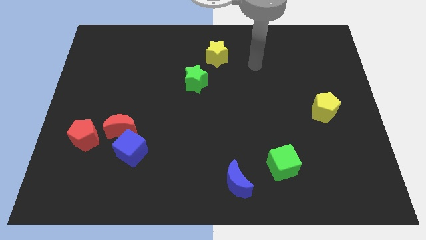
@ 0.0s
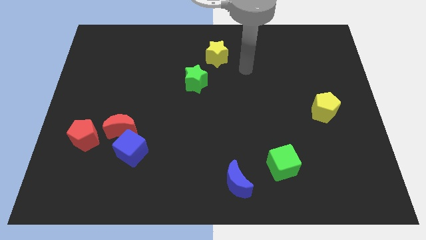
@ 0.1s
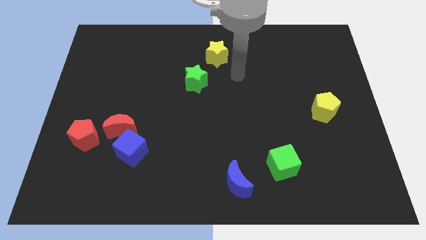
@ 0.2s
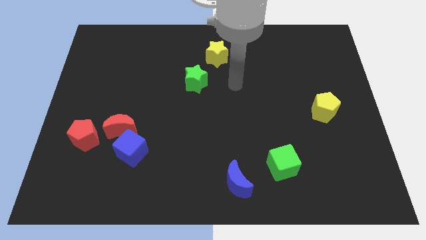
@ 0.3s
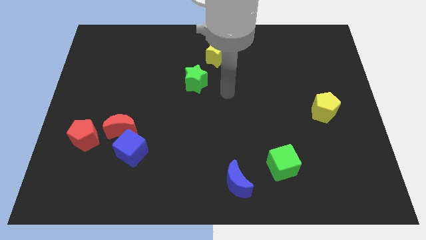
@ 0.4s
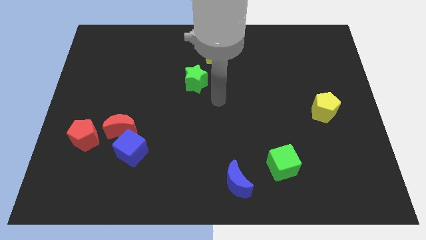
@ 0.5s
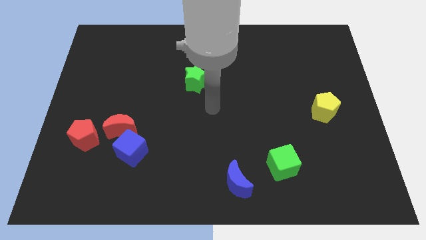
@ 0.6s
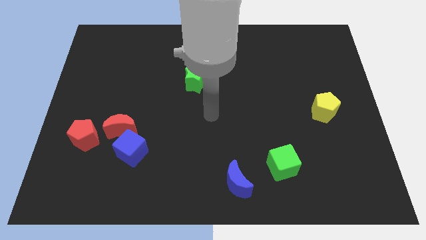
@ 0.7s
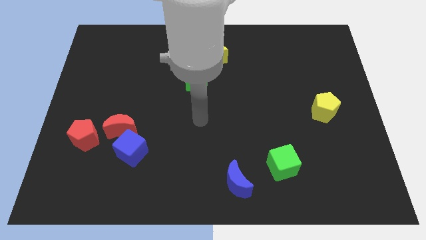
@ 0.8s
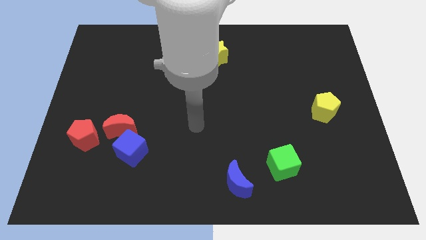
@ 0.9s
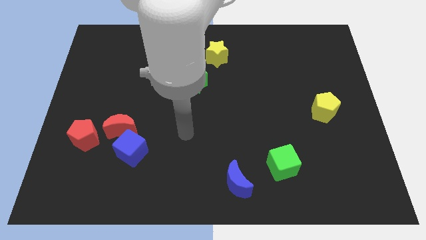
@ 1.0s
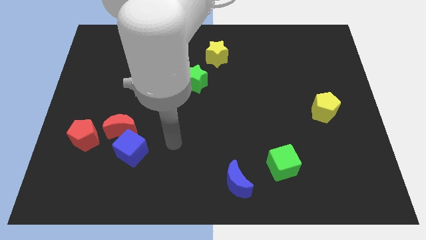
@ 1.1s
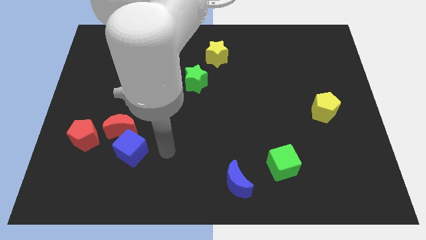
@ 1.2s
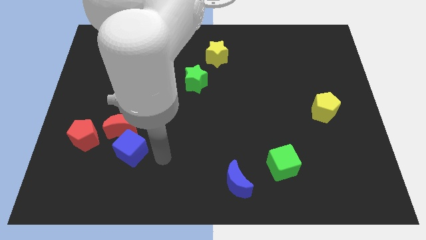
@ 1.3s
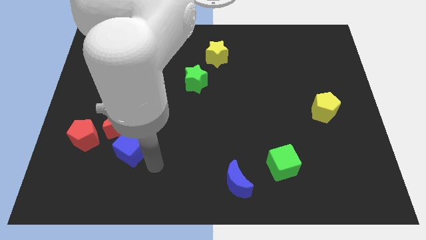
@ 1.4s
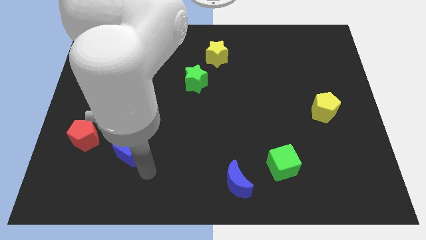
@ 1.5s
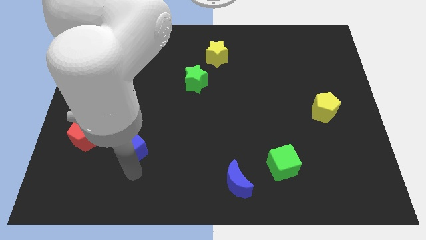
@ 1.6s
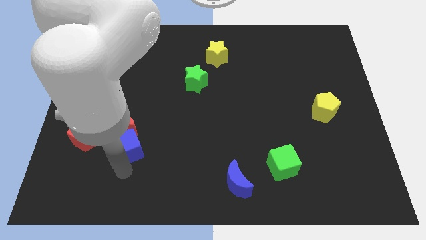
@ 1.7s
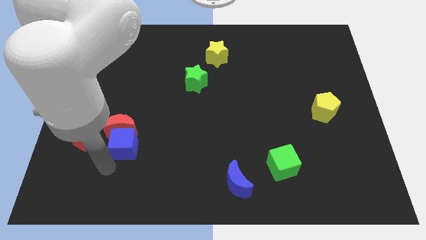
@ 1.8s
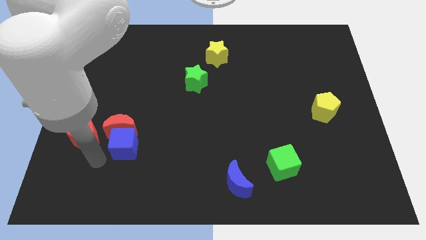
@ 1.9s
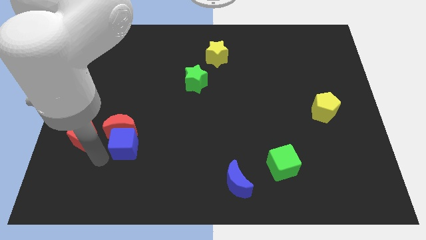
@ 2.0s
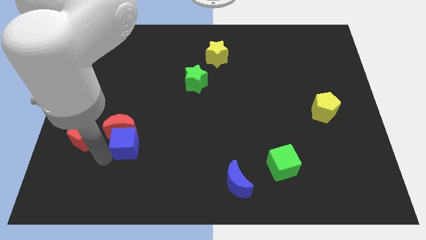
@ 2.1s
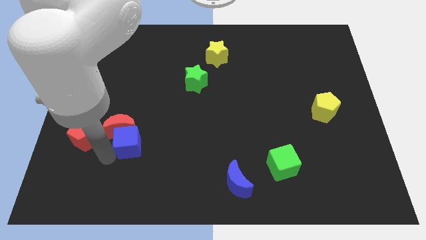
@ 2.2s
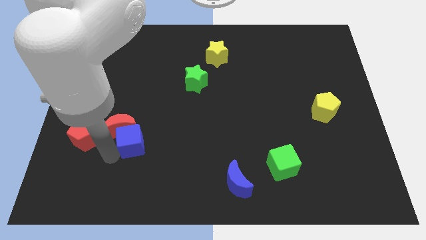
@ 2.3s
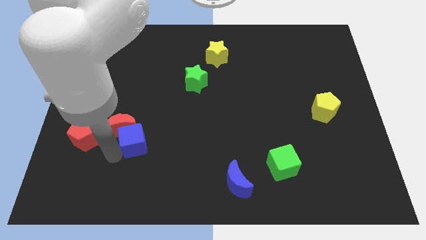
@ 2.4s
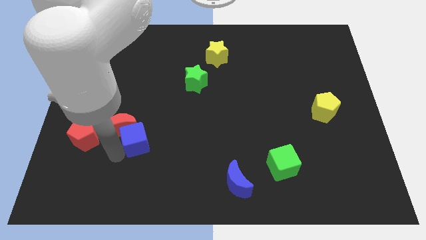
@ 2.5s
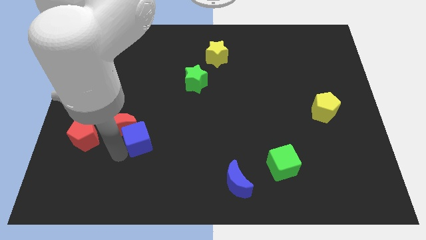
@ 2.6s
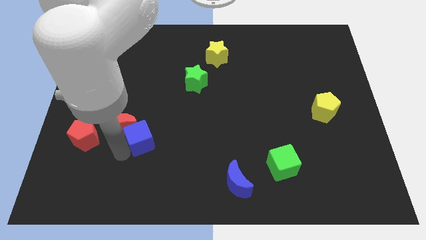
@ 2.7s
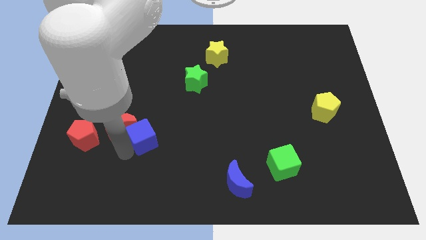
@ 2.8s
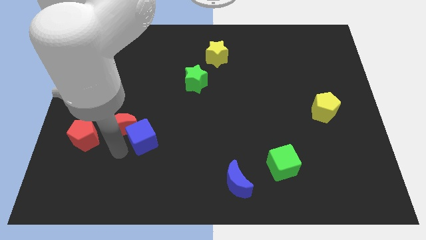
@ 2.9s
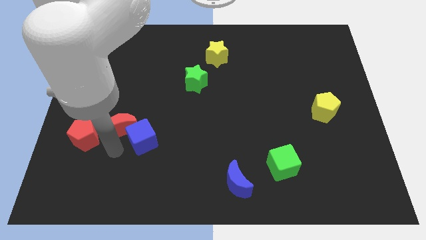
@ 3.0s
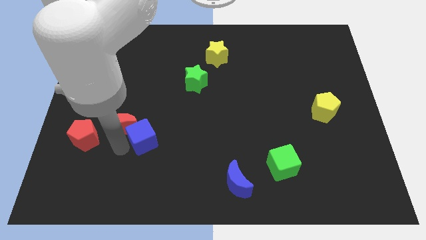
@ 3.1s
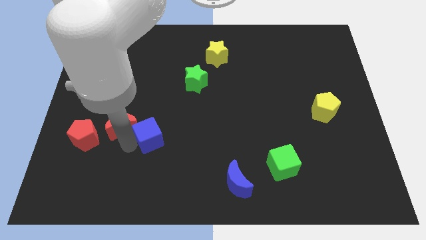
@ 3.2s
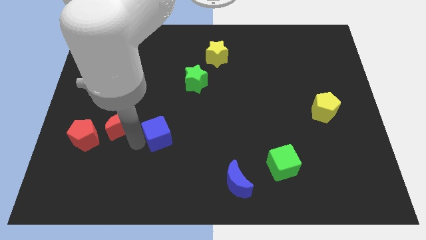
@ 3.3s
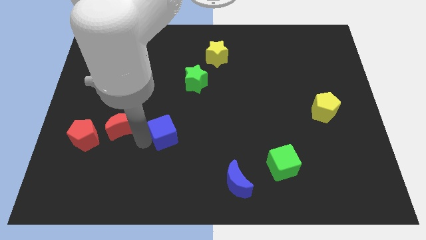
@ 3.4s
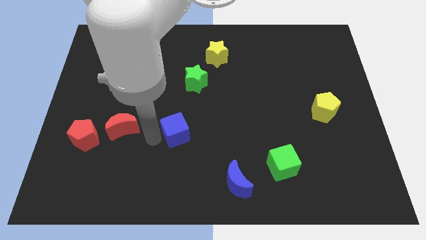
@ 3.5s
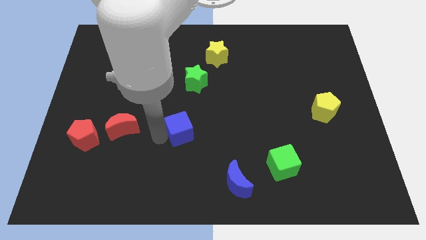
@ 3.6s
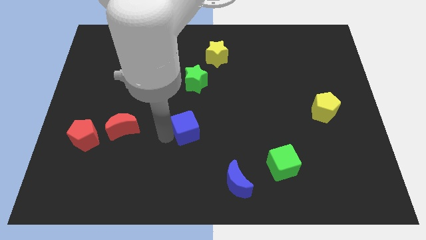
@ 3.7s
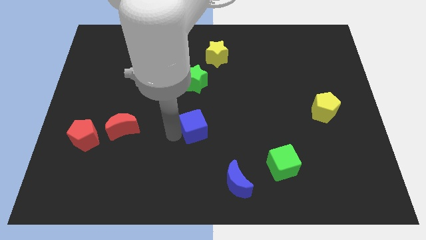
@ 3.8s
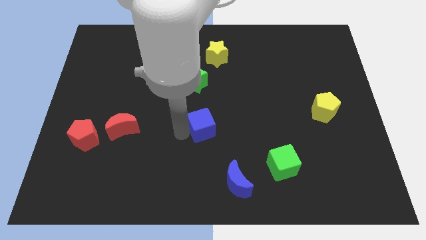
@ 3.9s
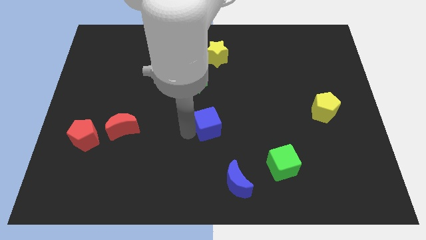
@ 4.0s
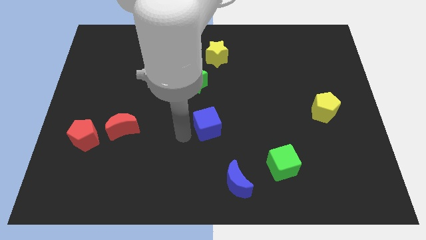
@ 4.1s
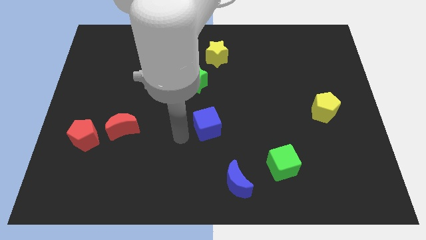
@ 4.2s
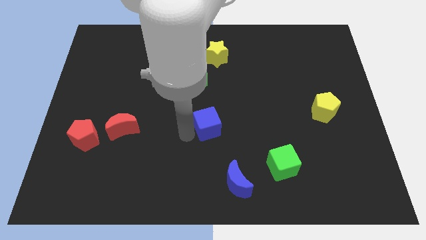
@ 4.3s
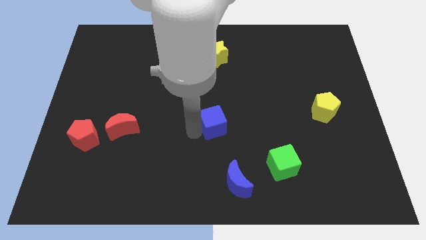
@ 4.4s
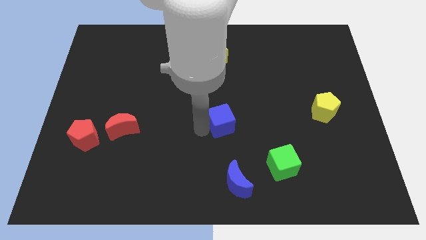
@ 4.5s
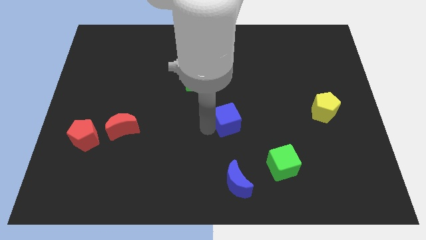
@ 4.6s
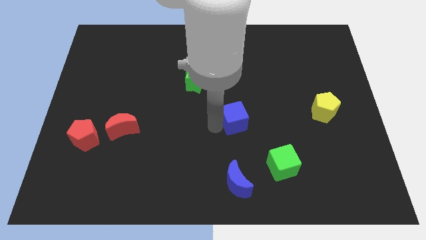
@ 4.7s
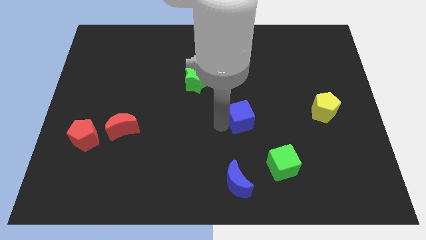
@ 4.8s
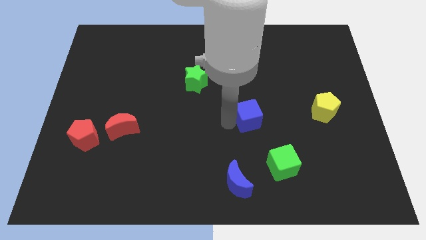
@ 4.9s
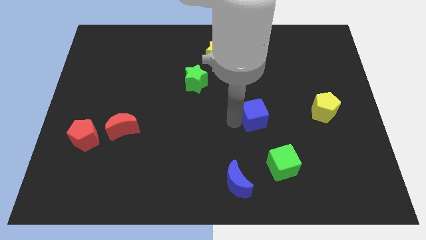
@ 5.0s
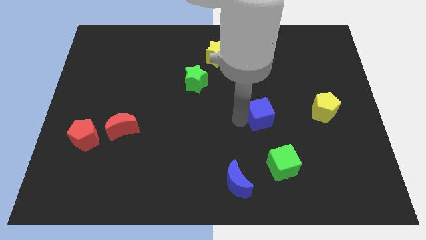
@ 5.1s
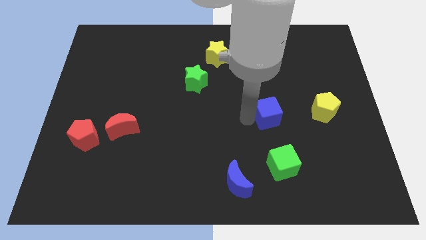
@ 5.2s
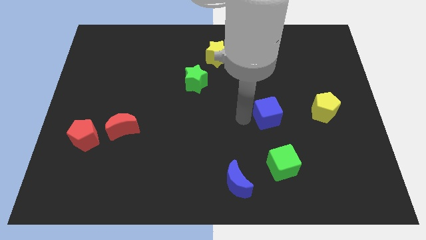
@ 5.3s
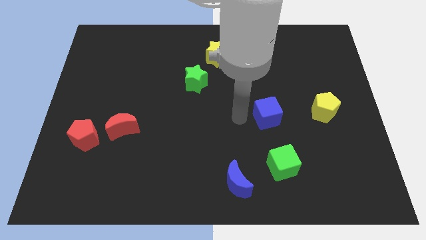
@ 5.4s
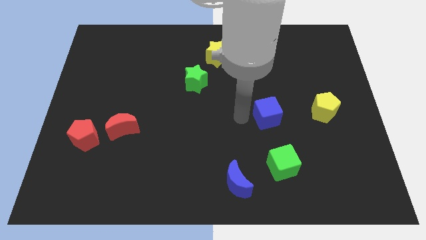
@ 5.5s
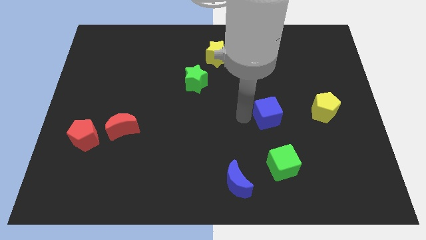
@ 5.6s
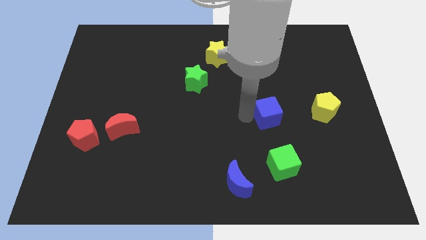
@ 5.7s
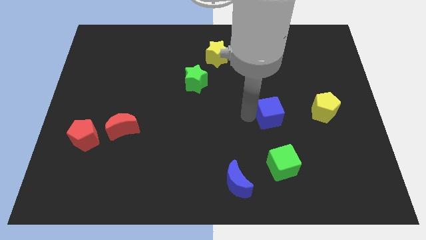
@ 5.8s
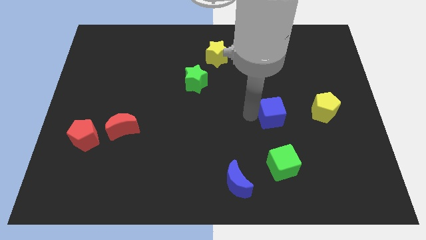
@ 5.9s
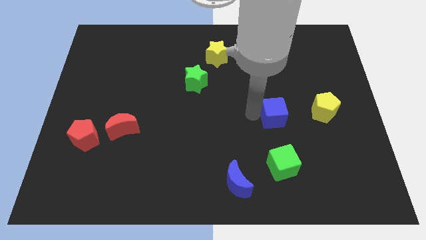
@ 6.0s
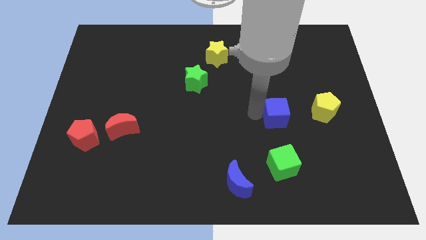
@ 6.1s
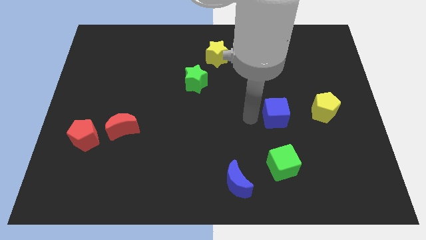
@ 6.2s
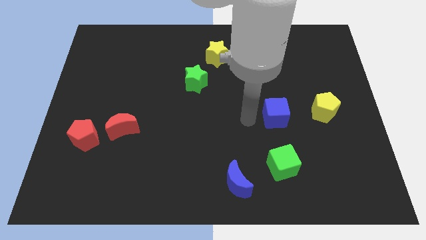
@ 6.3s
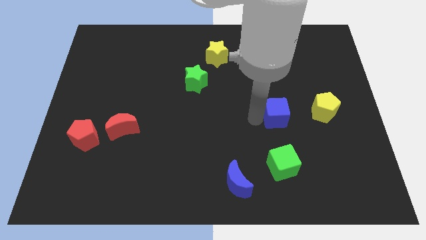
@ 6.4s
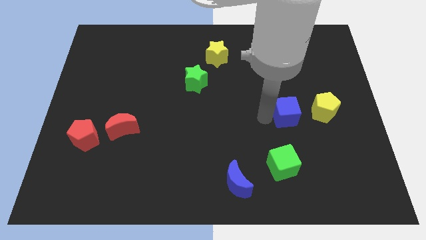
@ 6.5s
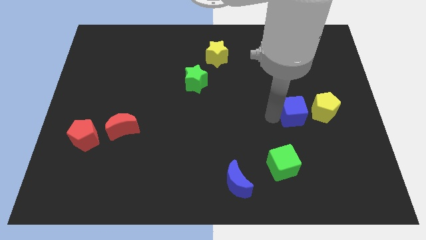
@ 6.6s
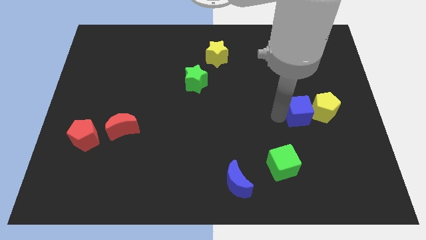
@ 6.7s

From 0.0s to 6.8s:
push the blue cube next to the yellow pentagon

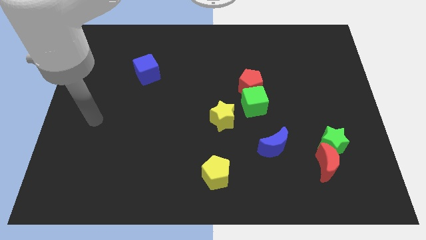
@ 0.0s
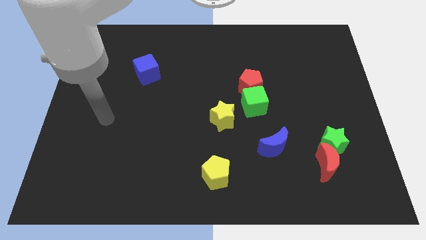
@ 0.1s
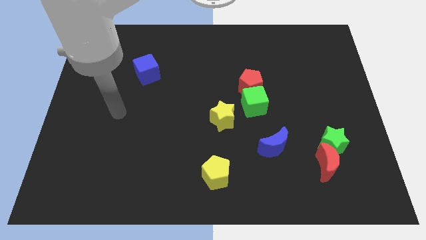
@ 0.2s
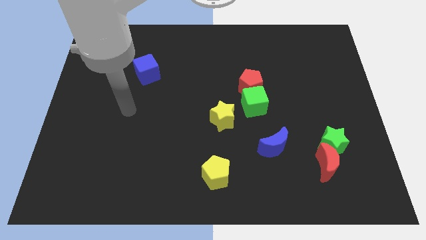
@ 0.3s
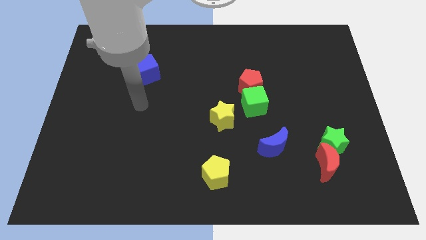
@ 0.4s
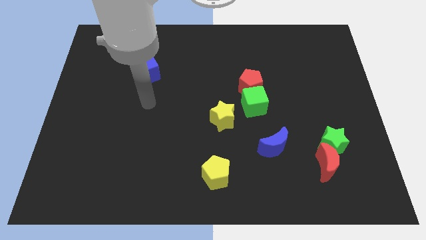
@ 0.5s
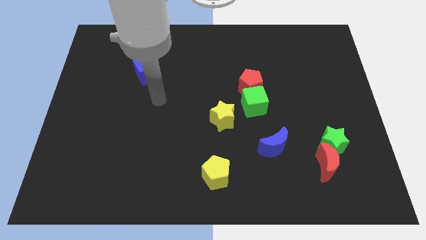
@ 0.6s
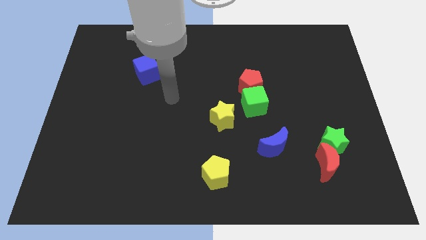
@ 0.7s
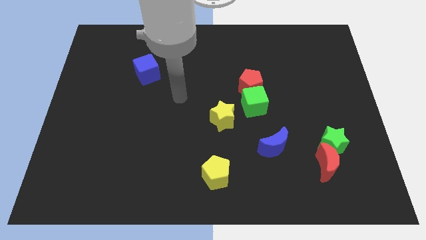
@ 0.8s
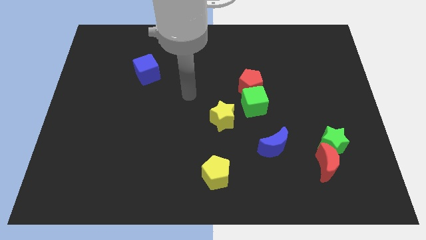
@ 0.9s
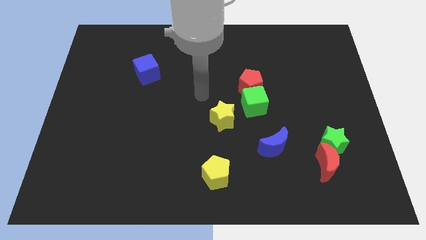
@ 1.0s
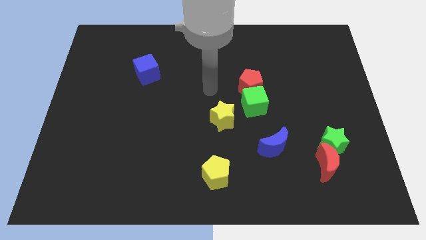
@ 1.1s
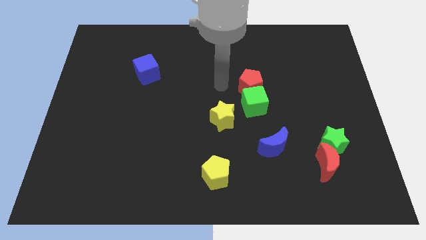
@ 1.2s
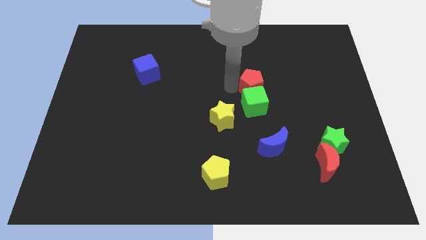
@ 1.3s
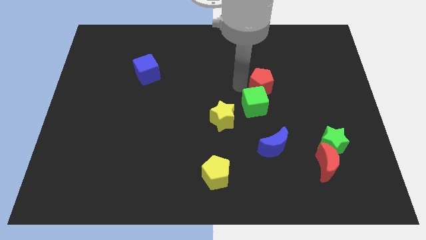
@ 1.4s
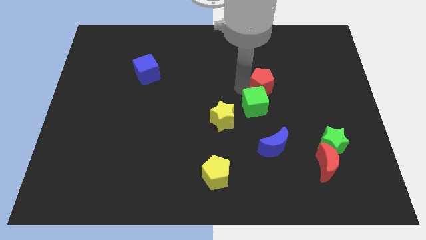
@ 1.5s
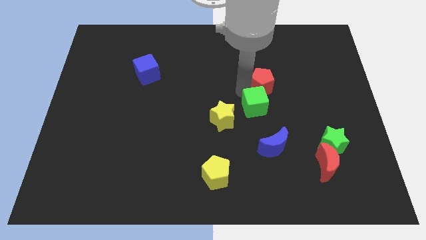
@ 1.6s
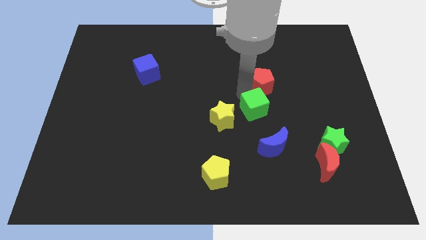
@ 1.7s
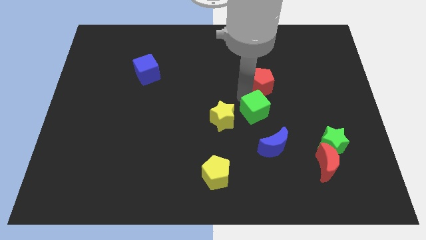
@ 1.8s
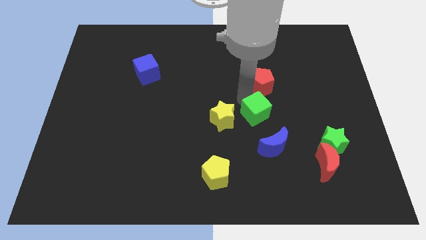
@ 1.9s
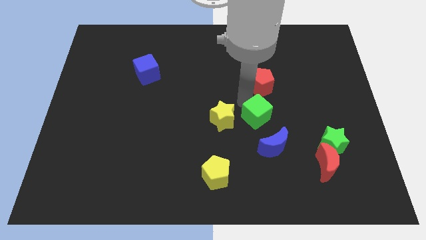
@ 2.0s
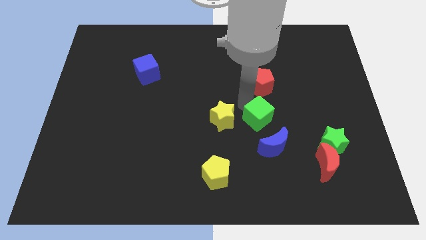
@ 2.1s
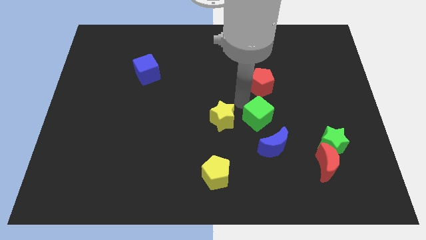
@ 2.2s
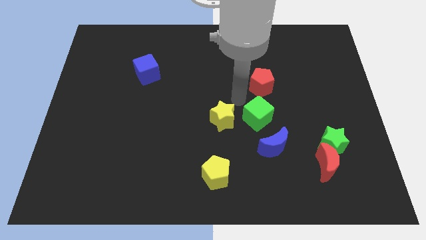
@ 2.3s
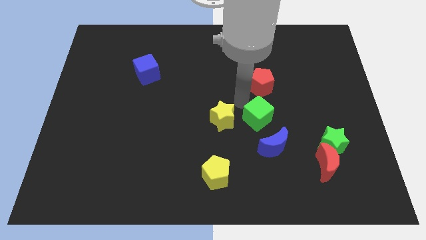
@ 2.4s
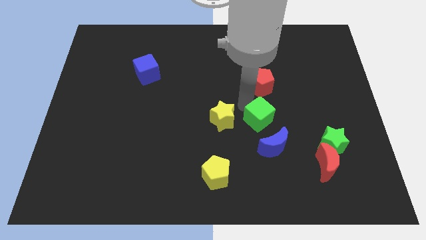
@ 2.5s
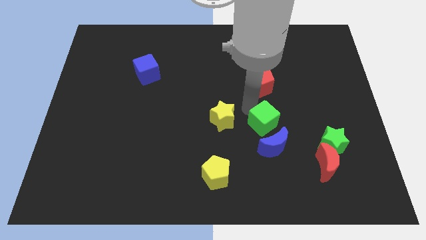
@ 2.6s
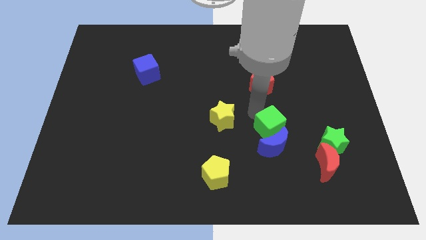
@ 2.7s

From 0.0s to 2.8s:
move the green cube next to the blue moon
